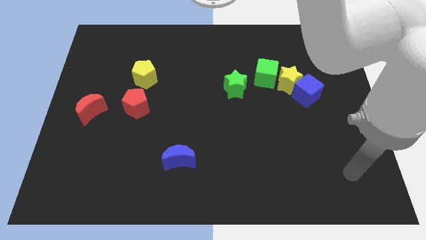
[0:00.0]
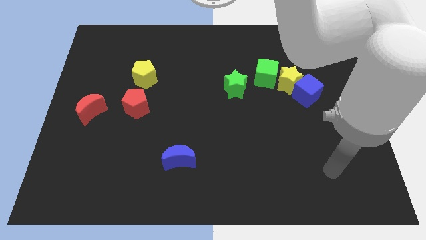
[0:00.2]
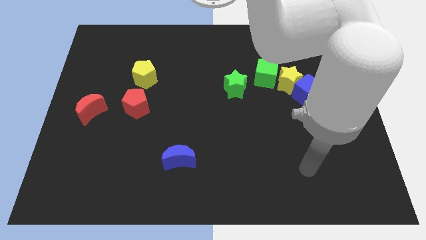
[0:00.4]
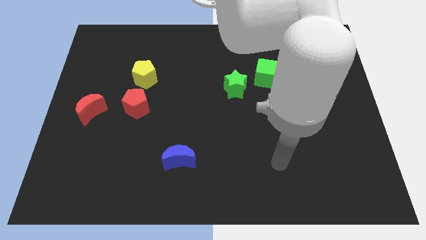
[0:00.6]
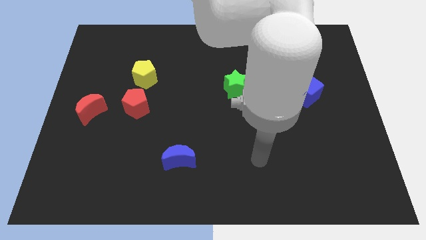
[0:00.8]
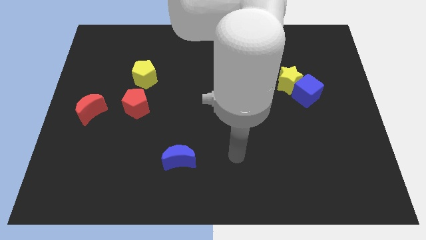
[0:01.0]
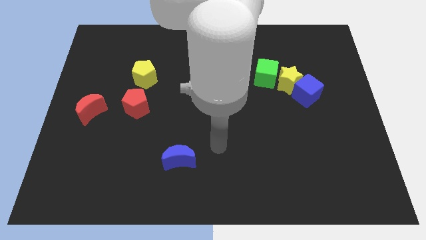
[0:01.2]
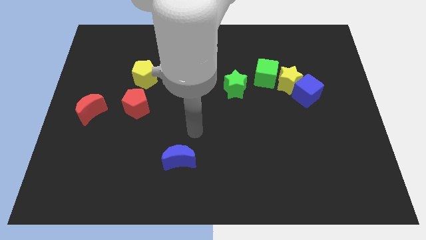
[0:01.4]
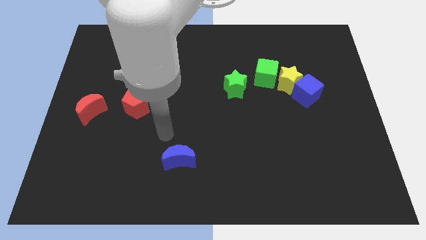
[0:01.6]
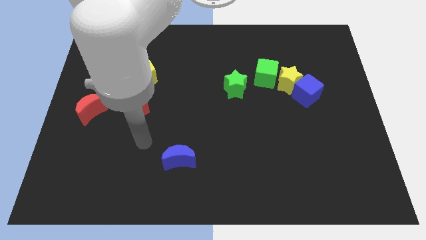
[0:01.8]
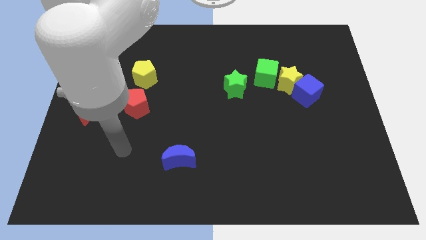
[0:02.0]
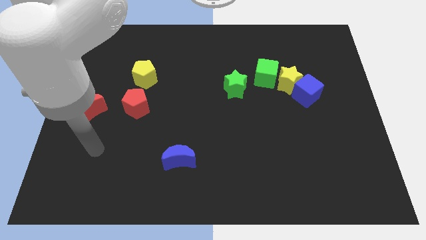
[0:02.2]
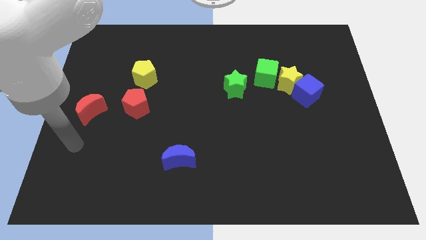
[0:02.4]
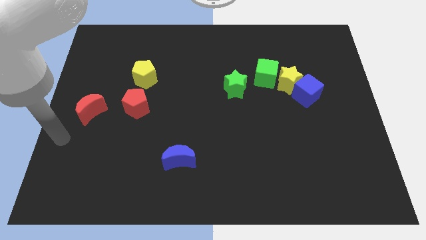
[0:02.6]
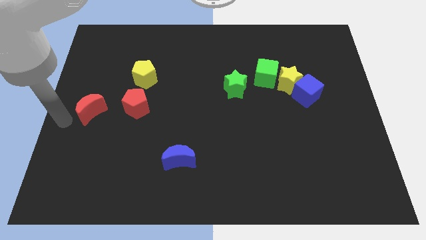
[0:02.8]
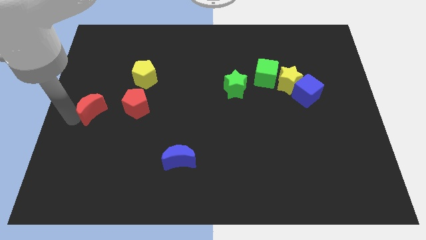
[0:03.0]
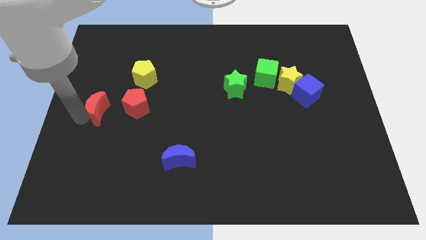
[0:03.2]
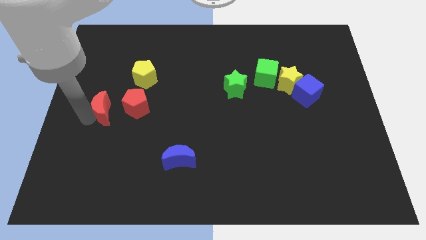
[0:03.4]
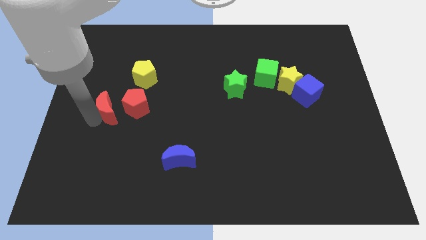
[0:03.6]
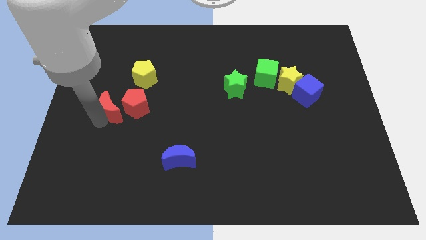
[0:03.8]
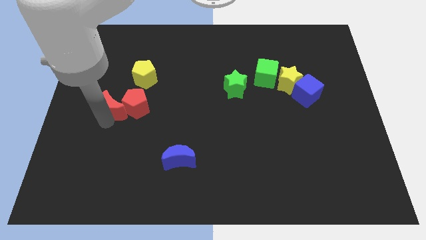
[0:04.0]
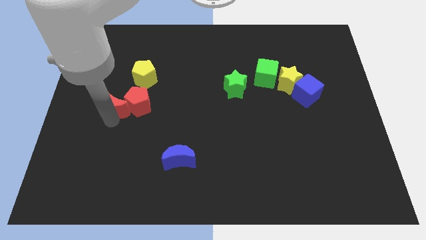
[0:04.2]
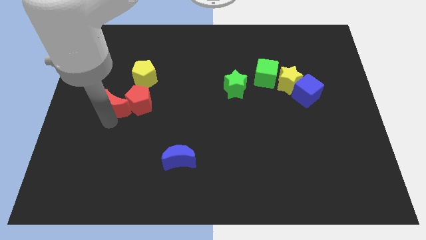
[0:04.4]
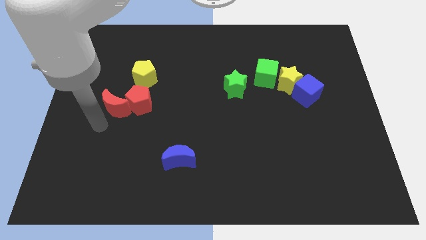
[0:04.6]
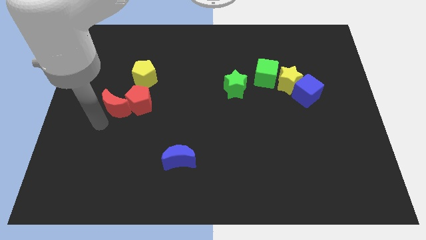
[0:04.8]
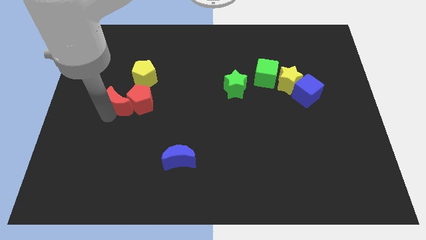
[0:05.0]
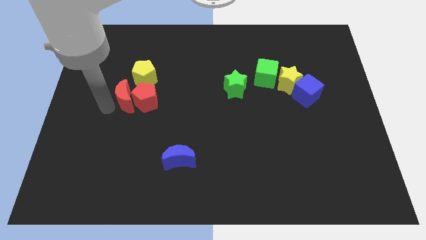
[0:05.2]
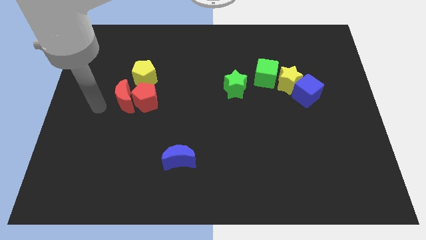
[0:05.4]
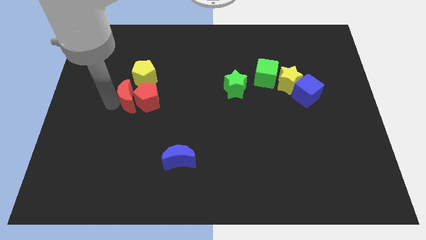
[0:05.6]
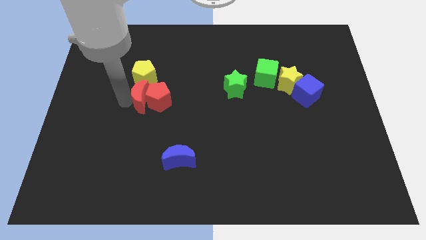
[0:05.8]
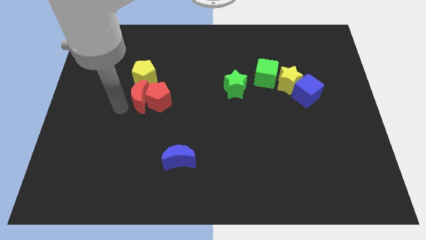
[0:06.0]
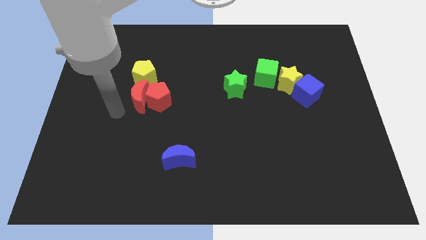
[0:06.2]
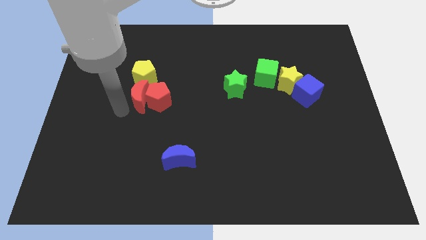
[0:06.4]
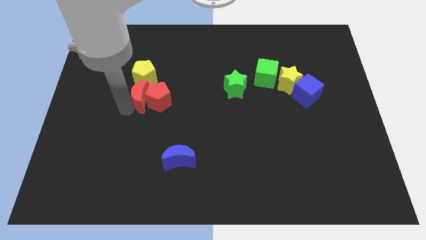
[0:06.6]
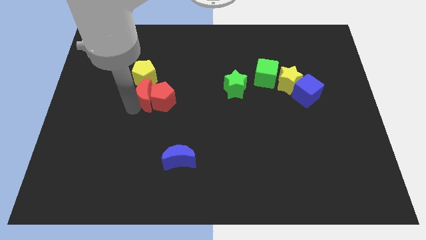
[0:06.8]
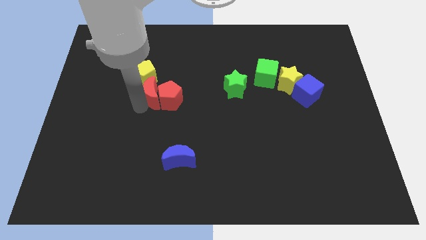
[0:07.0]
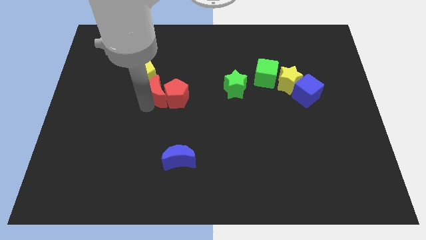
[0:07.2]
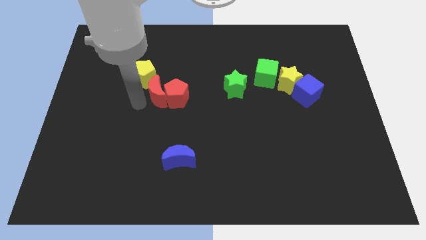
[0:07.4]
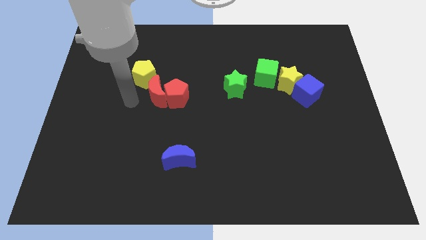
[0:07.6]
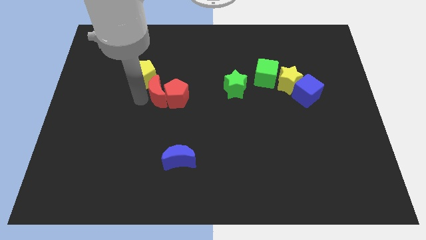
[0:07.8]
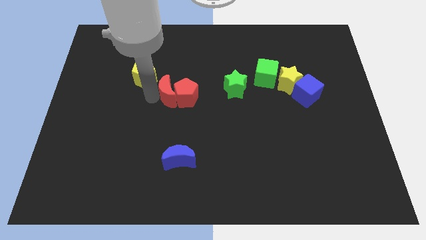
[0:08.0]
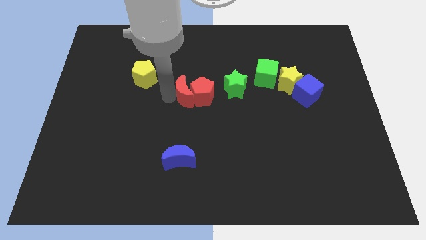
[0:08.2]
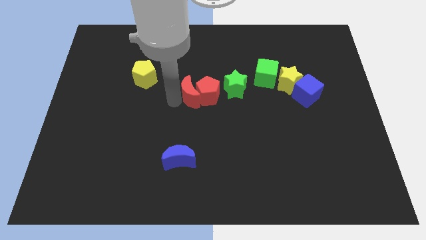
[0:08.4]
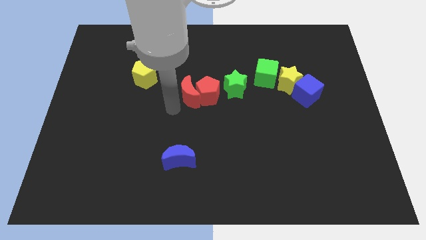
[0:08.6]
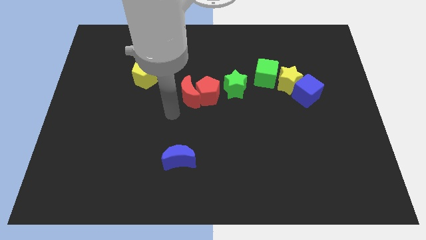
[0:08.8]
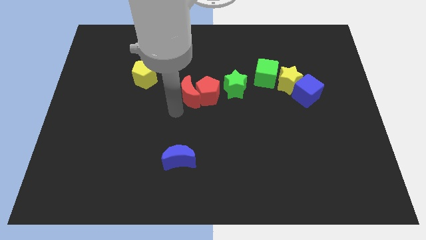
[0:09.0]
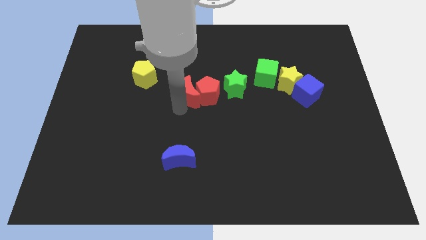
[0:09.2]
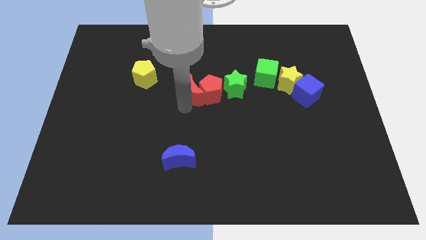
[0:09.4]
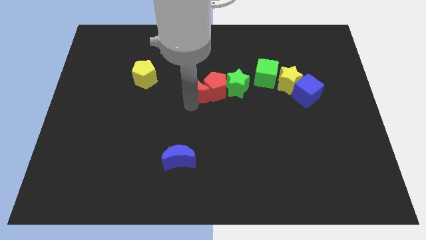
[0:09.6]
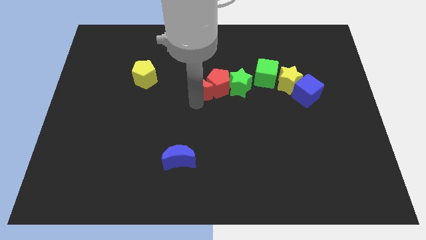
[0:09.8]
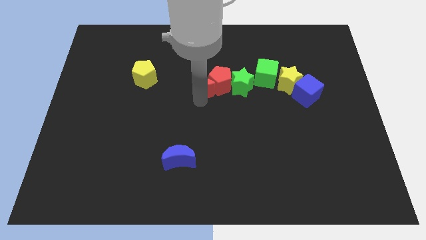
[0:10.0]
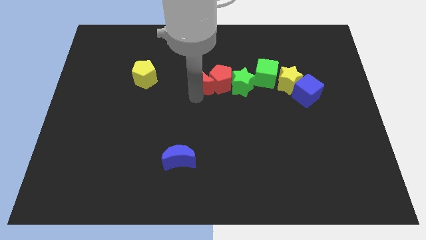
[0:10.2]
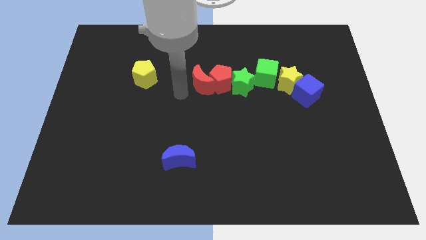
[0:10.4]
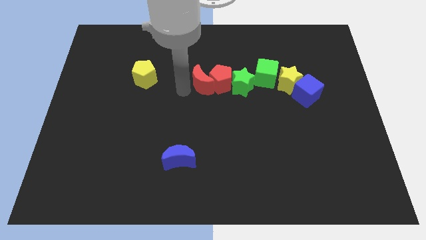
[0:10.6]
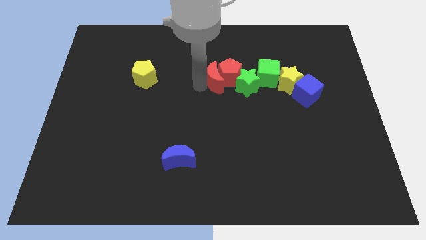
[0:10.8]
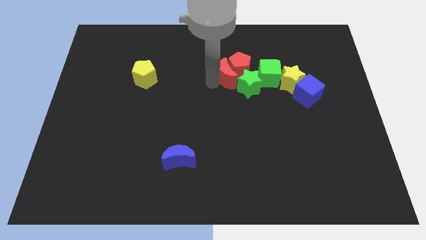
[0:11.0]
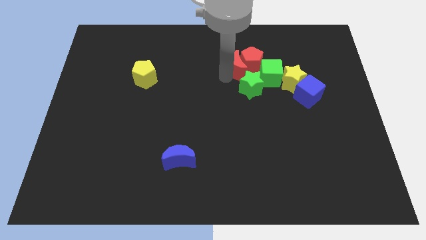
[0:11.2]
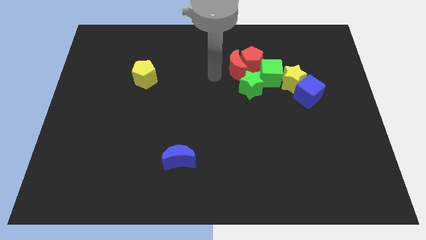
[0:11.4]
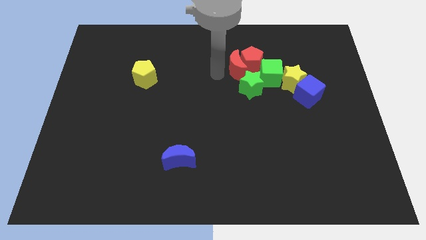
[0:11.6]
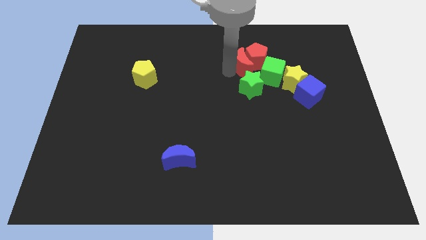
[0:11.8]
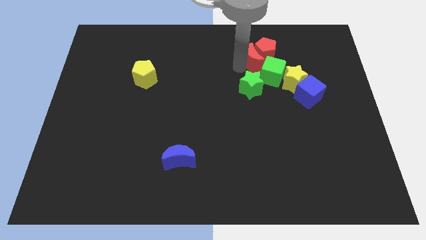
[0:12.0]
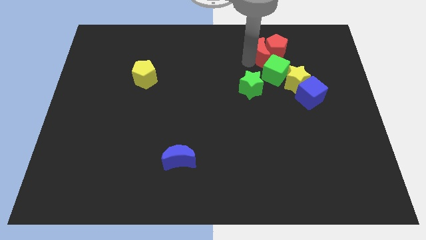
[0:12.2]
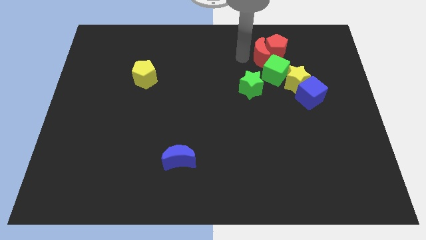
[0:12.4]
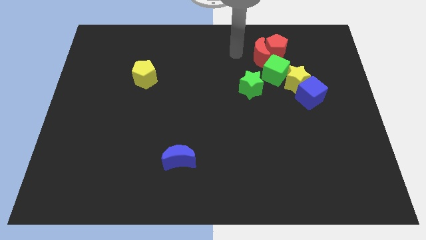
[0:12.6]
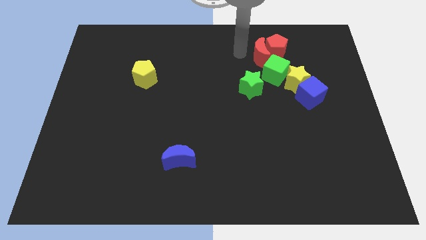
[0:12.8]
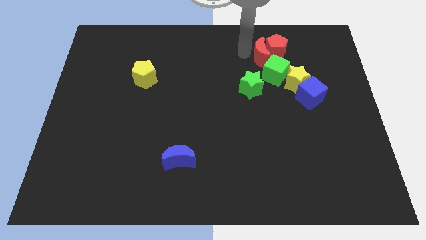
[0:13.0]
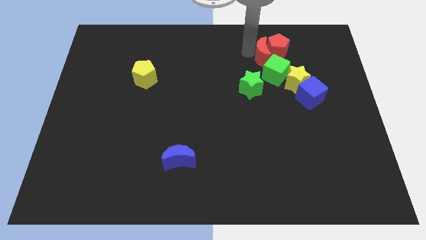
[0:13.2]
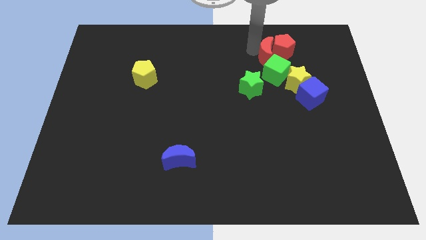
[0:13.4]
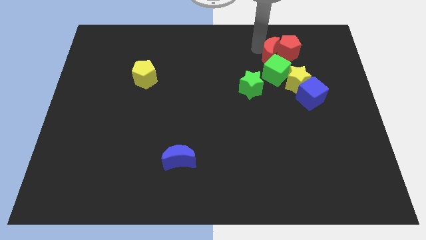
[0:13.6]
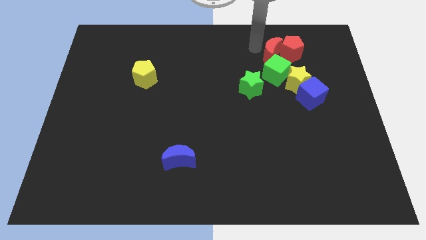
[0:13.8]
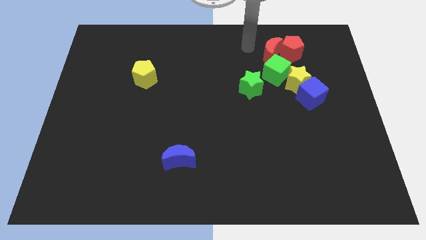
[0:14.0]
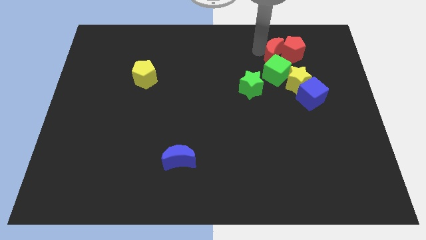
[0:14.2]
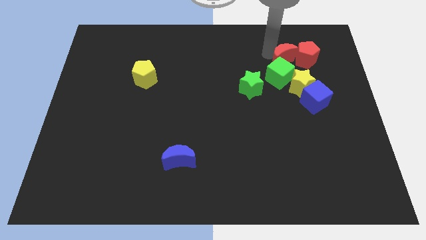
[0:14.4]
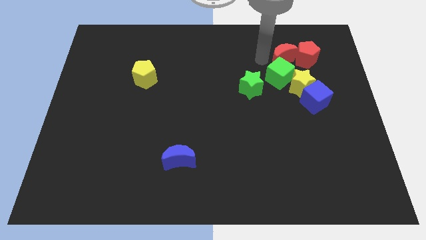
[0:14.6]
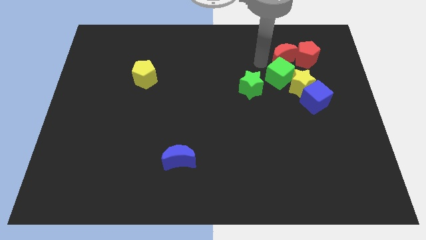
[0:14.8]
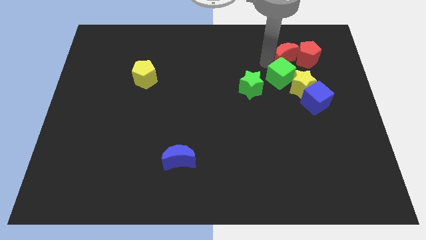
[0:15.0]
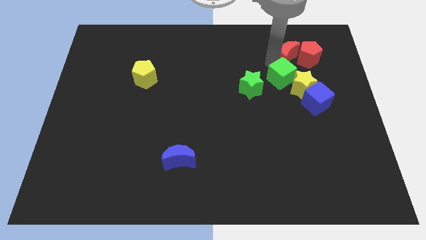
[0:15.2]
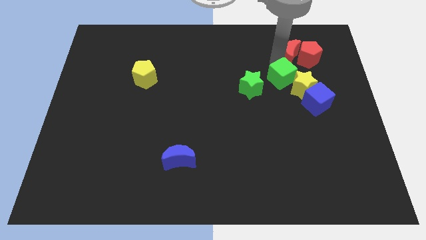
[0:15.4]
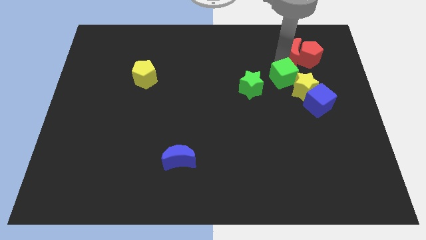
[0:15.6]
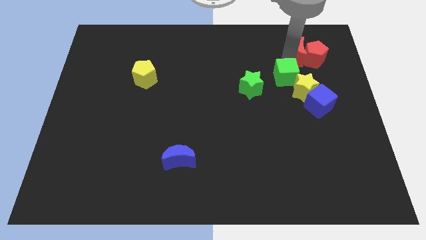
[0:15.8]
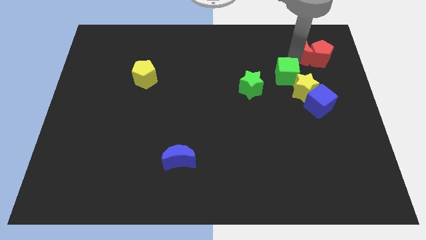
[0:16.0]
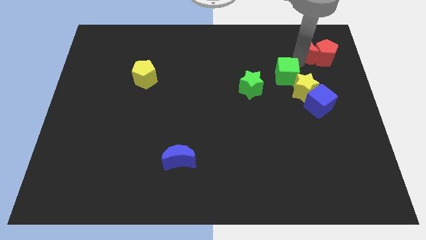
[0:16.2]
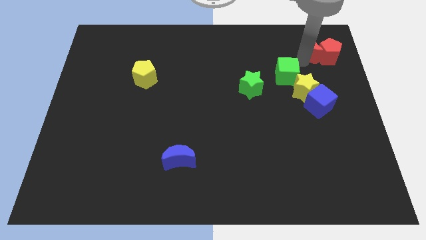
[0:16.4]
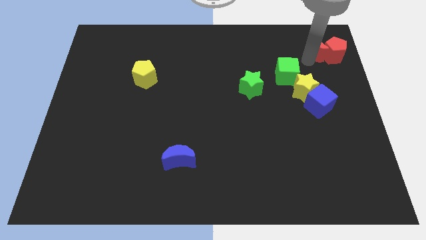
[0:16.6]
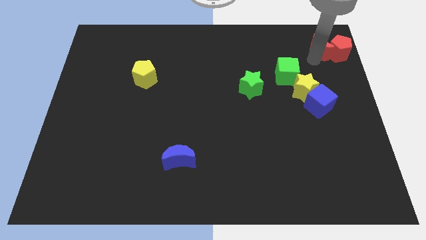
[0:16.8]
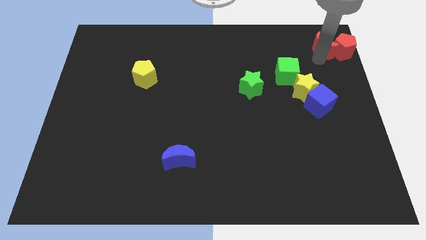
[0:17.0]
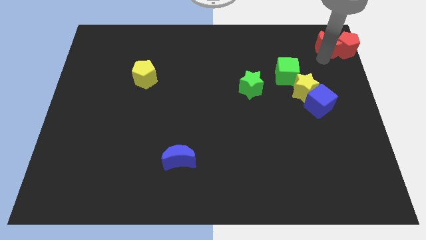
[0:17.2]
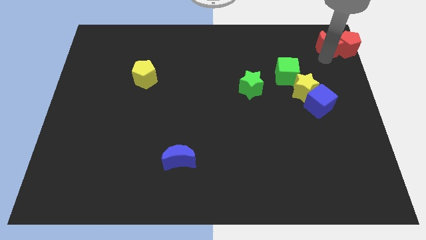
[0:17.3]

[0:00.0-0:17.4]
push the red moon to the top right corner
